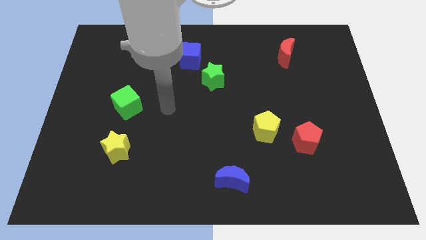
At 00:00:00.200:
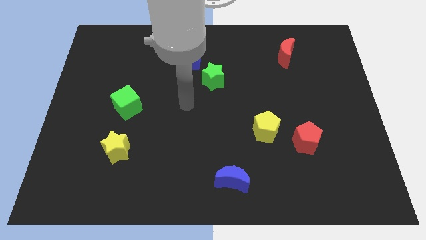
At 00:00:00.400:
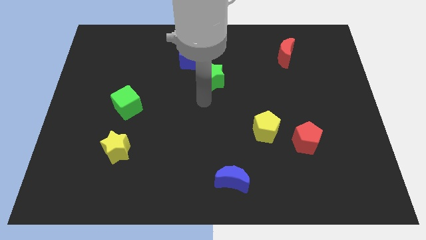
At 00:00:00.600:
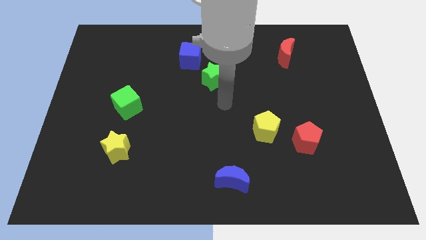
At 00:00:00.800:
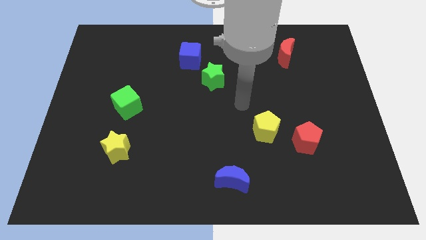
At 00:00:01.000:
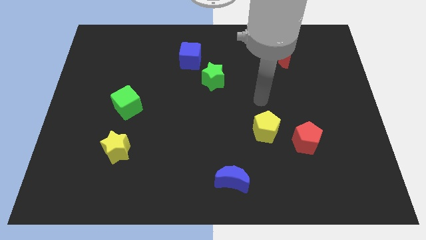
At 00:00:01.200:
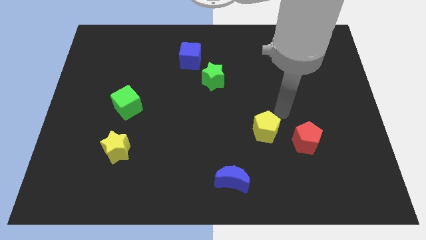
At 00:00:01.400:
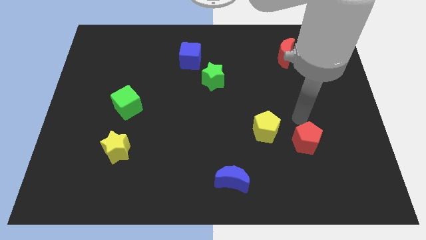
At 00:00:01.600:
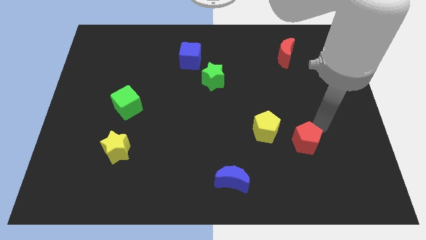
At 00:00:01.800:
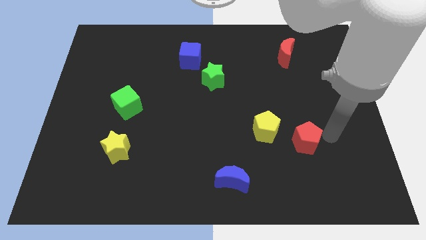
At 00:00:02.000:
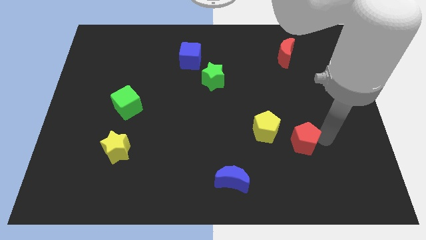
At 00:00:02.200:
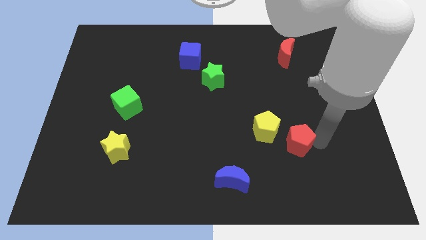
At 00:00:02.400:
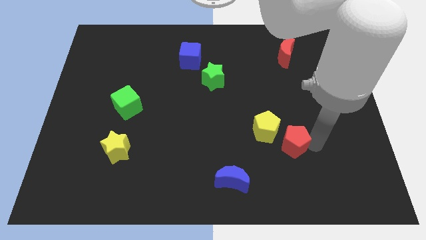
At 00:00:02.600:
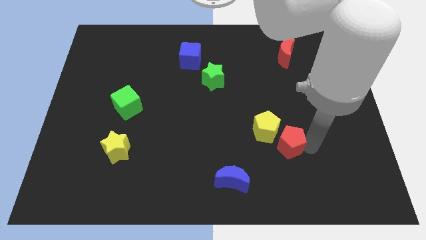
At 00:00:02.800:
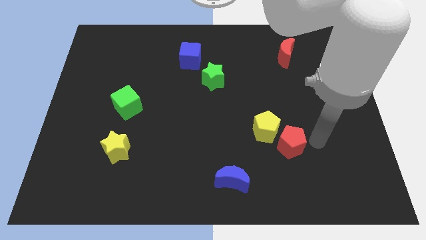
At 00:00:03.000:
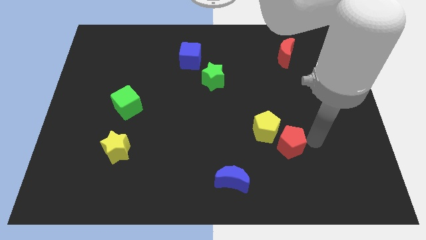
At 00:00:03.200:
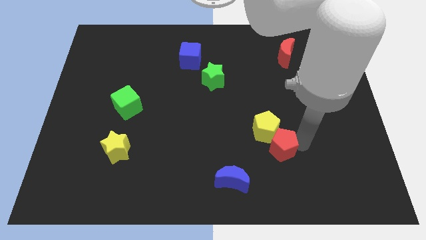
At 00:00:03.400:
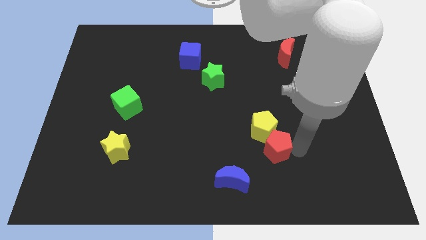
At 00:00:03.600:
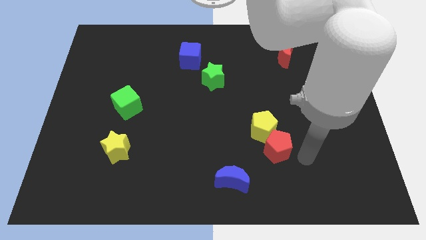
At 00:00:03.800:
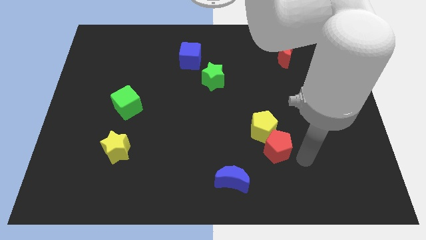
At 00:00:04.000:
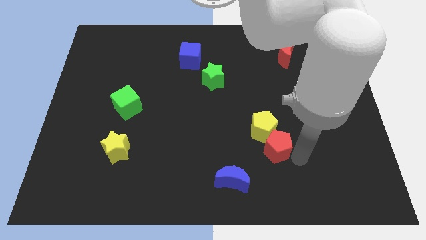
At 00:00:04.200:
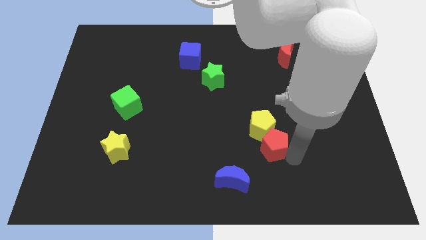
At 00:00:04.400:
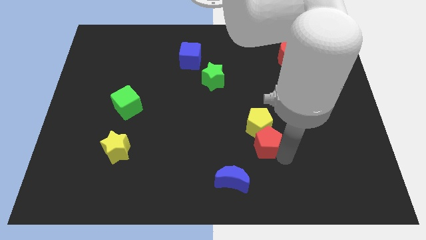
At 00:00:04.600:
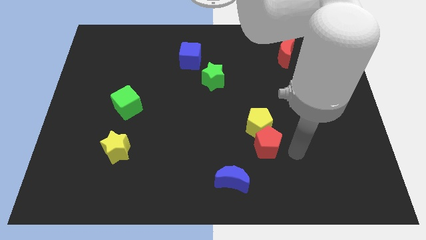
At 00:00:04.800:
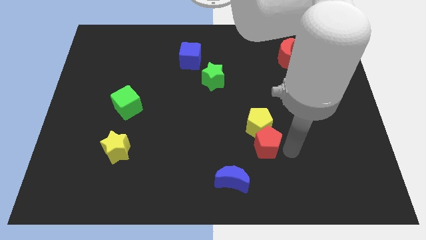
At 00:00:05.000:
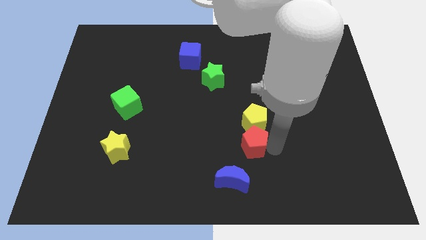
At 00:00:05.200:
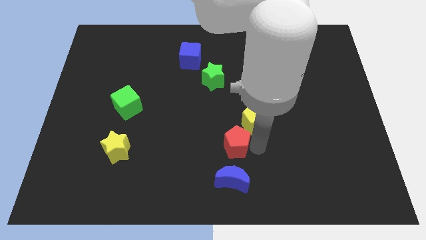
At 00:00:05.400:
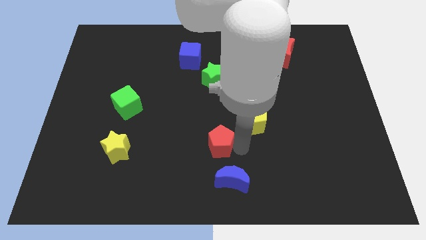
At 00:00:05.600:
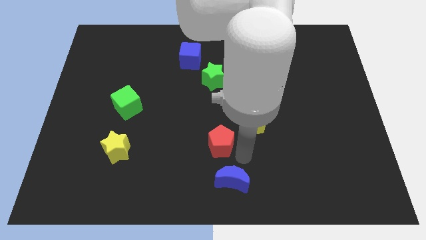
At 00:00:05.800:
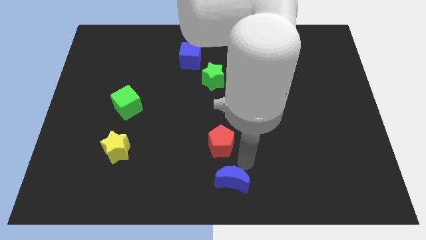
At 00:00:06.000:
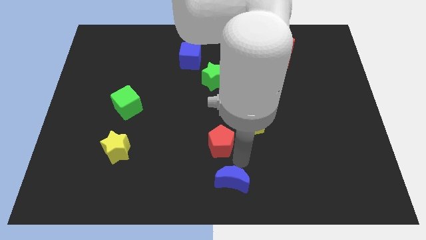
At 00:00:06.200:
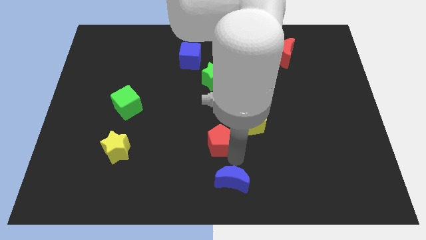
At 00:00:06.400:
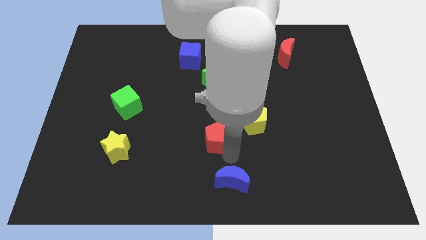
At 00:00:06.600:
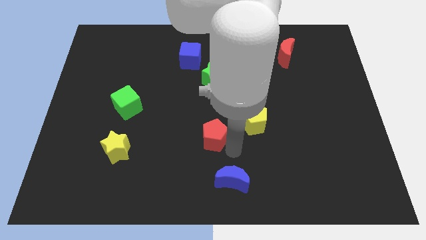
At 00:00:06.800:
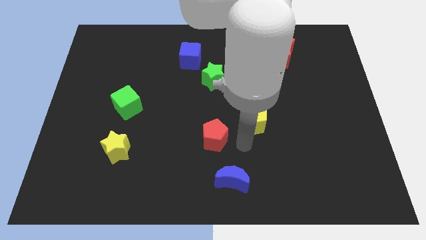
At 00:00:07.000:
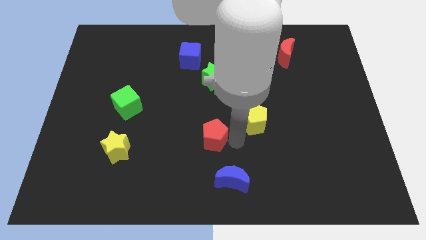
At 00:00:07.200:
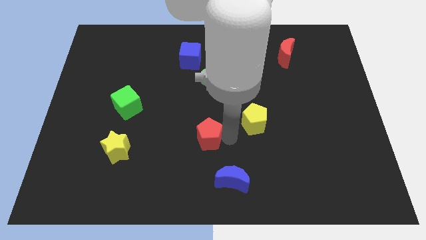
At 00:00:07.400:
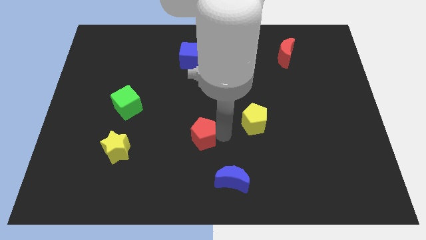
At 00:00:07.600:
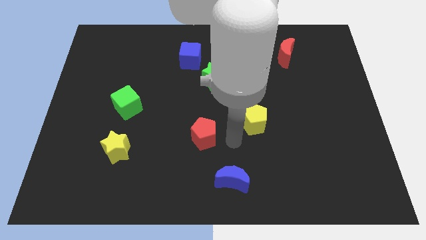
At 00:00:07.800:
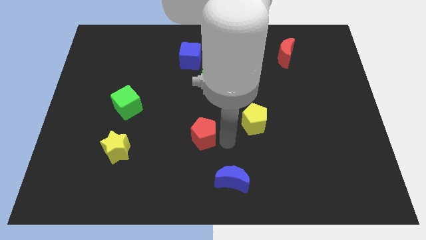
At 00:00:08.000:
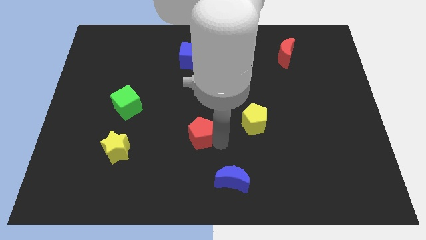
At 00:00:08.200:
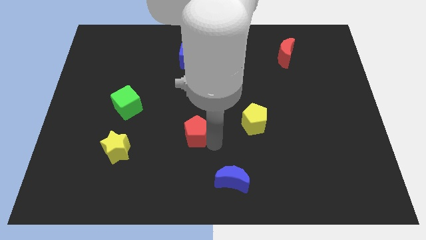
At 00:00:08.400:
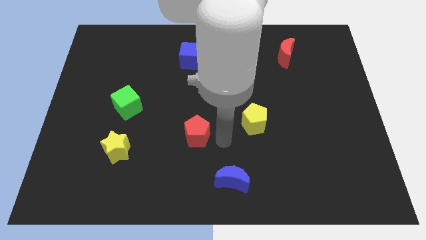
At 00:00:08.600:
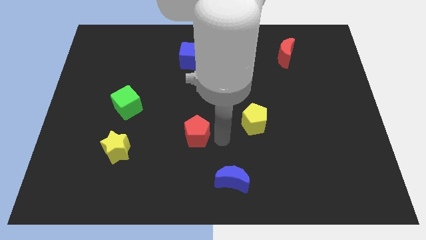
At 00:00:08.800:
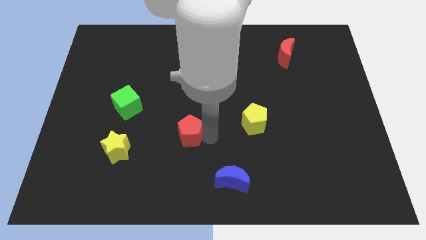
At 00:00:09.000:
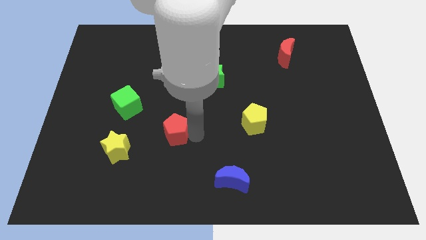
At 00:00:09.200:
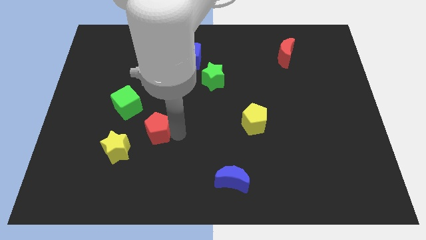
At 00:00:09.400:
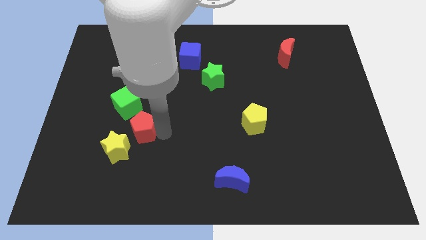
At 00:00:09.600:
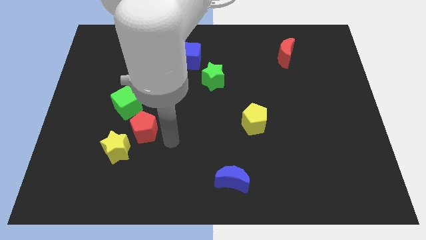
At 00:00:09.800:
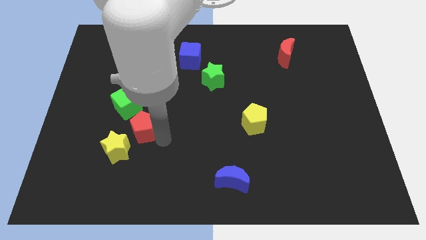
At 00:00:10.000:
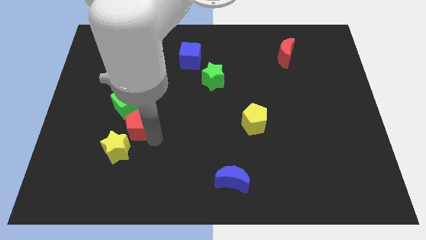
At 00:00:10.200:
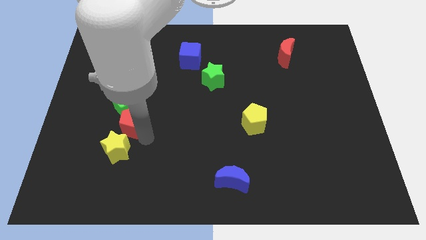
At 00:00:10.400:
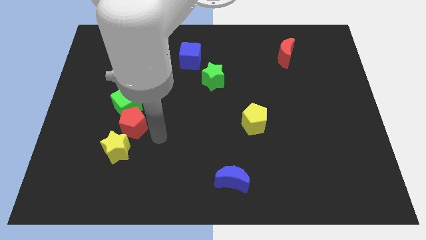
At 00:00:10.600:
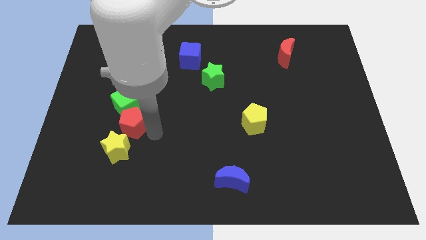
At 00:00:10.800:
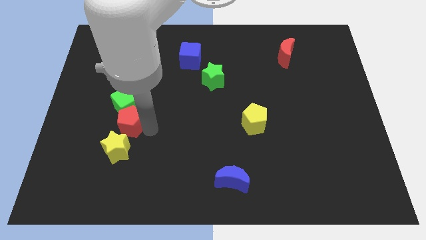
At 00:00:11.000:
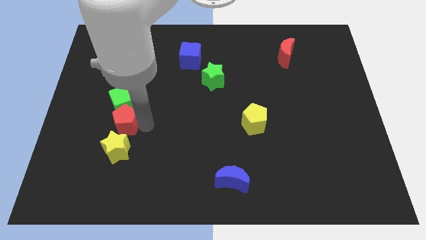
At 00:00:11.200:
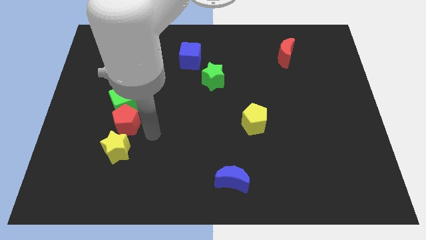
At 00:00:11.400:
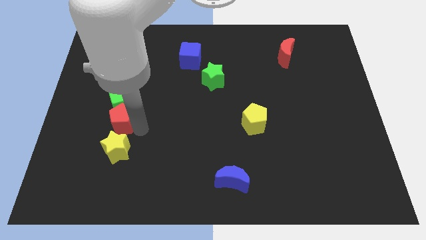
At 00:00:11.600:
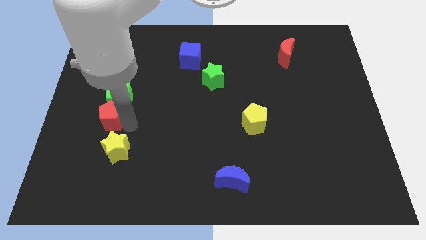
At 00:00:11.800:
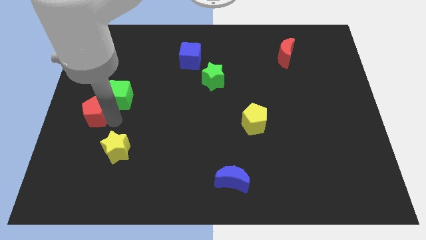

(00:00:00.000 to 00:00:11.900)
move the red pentagon to the left side
